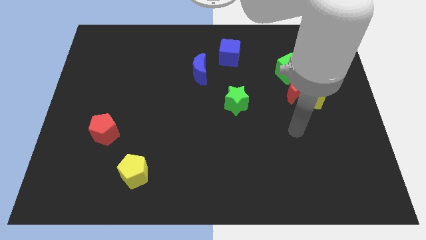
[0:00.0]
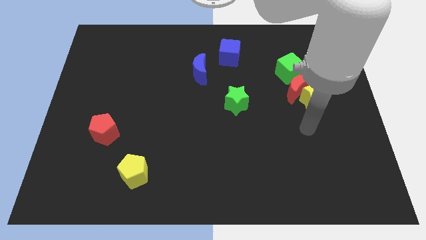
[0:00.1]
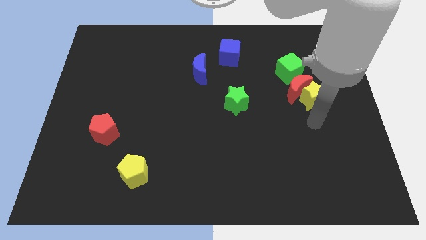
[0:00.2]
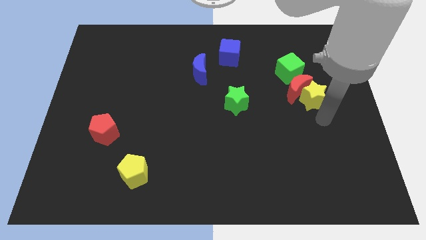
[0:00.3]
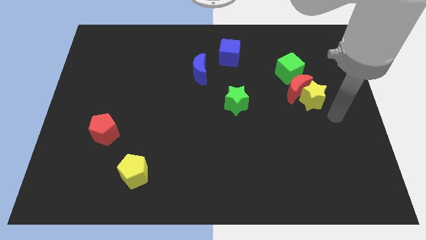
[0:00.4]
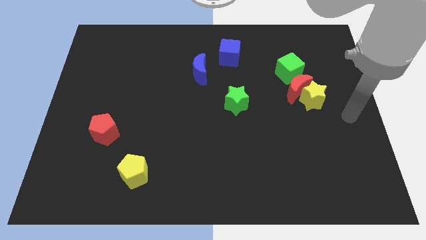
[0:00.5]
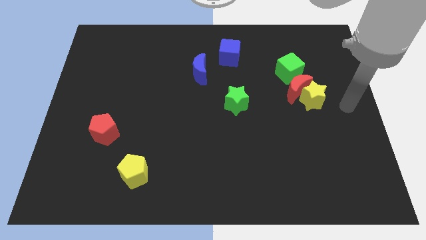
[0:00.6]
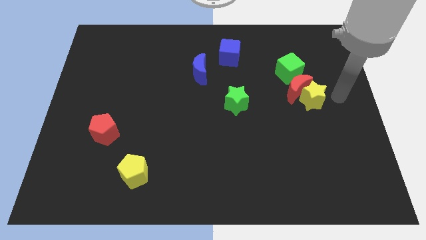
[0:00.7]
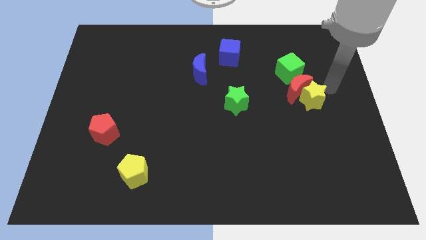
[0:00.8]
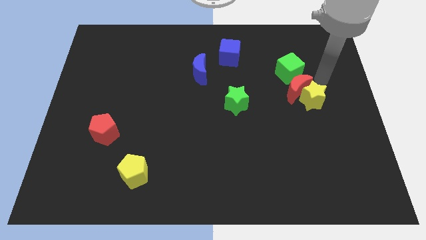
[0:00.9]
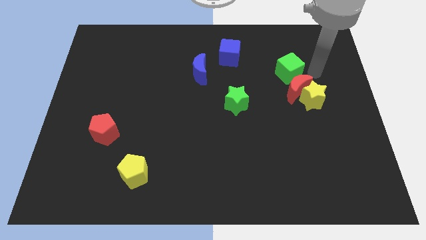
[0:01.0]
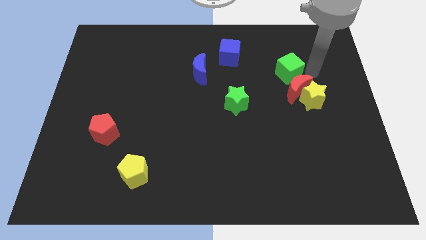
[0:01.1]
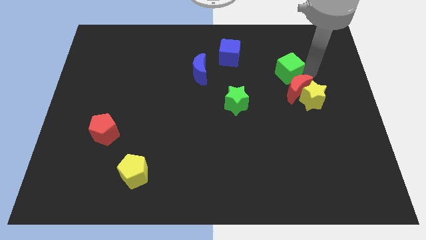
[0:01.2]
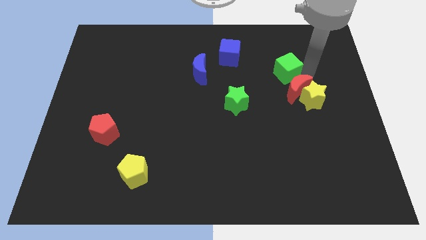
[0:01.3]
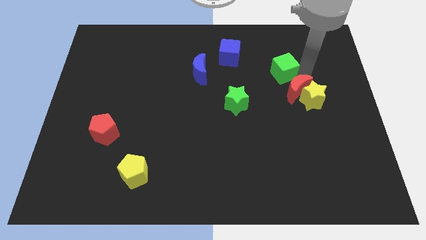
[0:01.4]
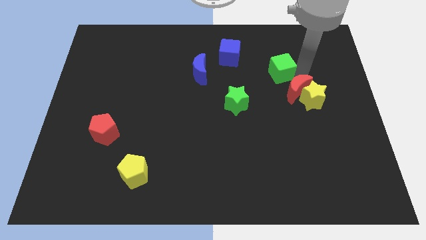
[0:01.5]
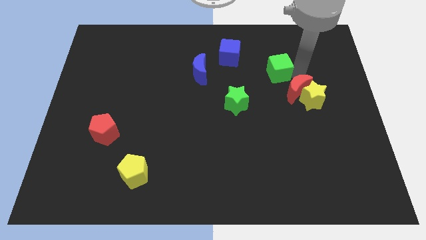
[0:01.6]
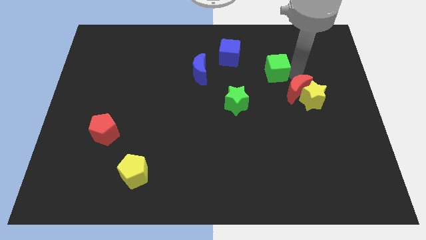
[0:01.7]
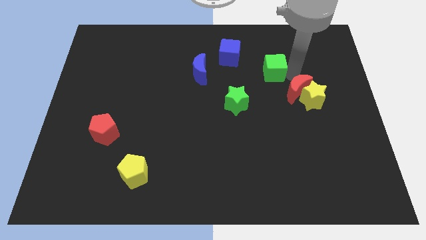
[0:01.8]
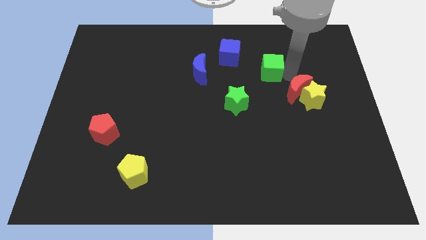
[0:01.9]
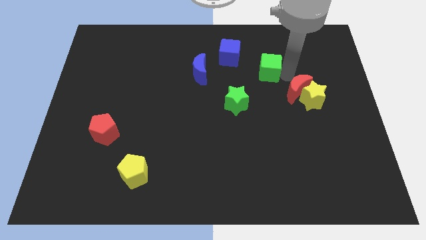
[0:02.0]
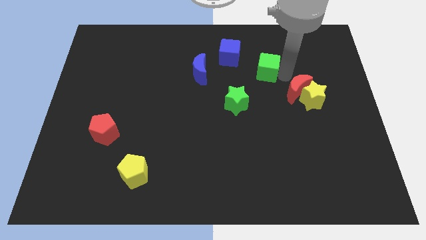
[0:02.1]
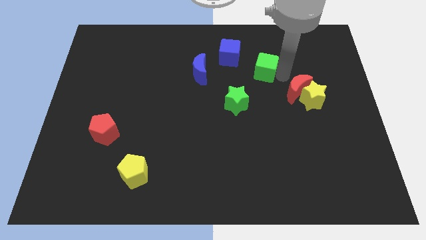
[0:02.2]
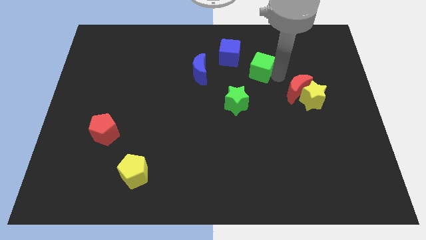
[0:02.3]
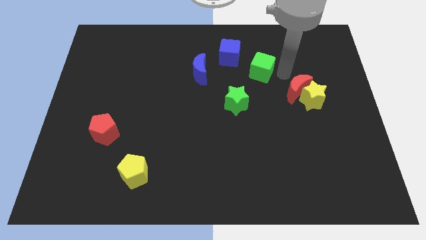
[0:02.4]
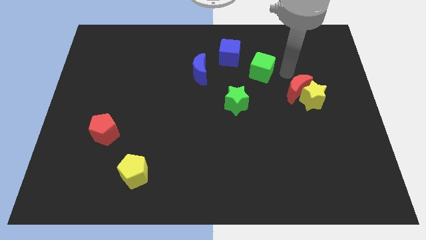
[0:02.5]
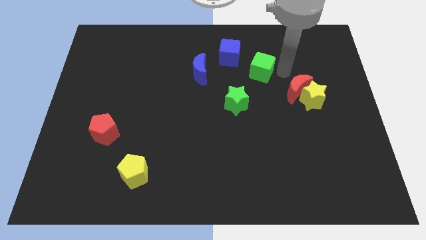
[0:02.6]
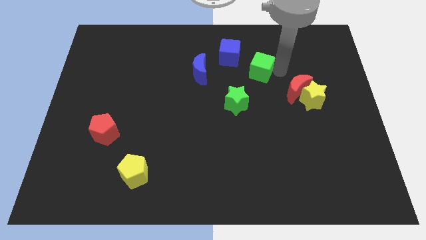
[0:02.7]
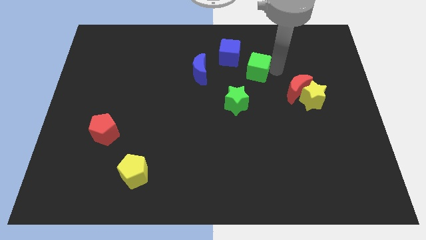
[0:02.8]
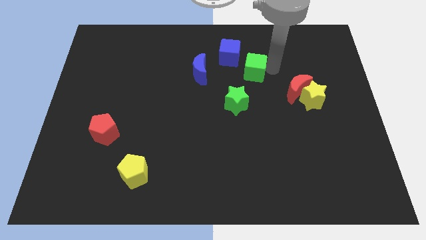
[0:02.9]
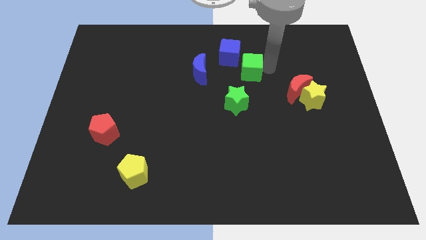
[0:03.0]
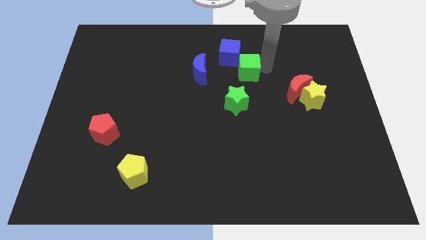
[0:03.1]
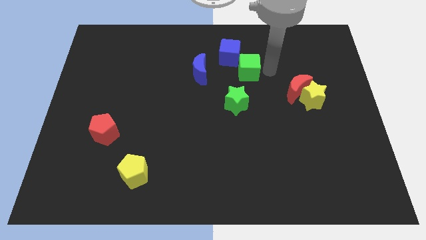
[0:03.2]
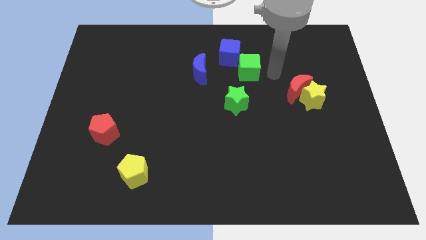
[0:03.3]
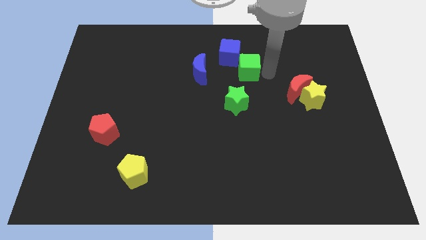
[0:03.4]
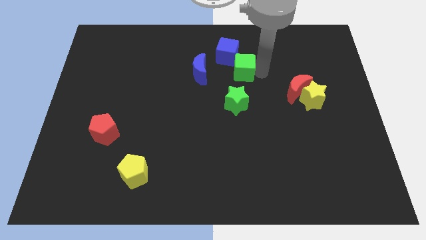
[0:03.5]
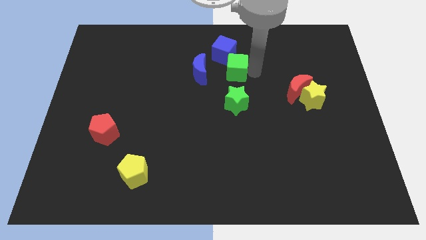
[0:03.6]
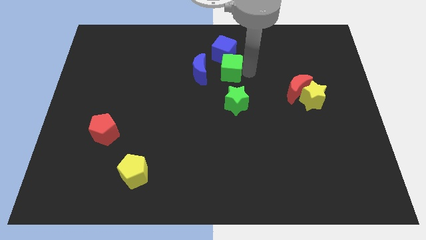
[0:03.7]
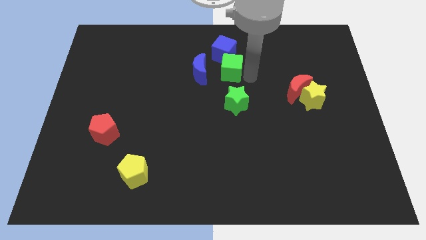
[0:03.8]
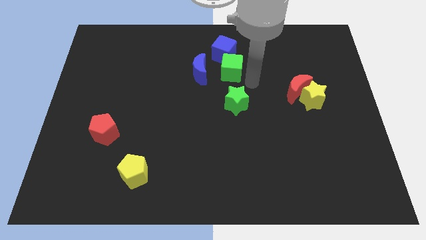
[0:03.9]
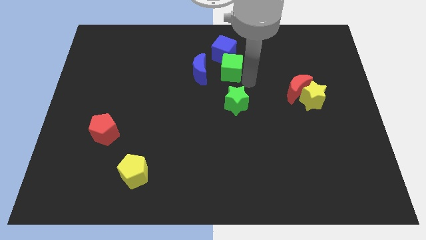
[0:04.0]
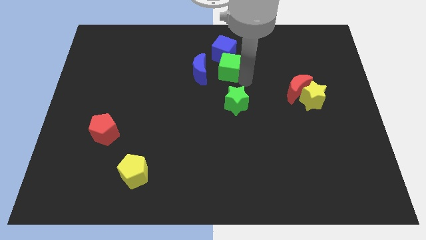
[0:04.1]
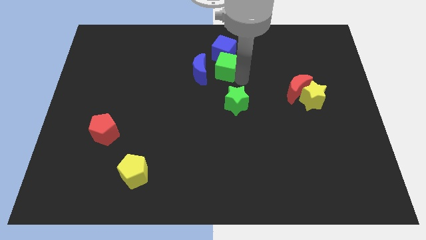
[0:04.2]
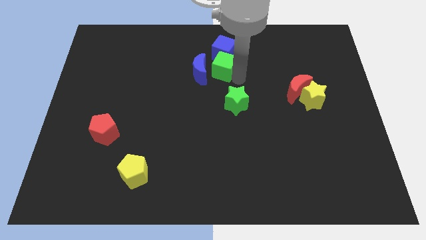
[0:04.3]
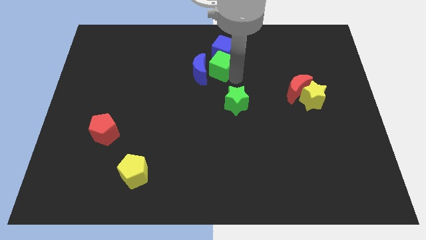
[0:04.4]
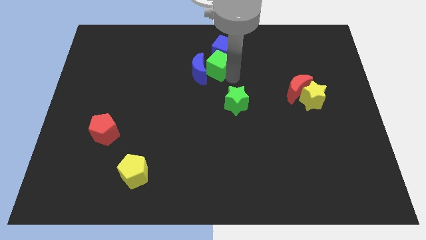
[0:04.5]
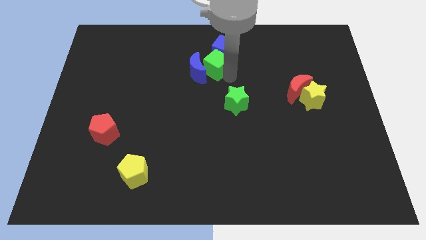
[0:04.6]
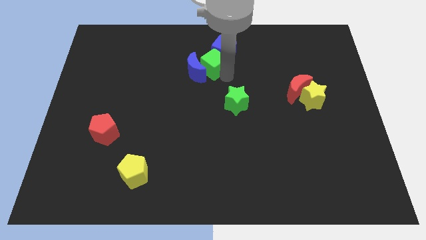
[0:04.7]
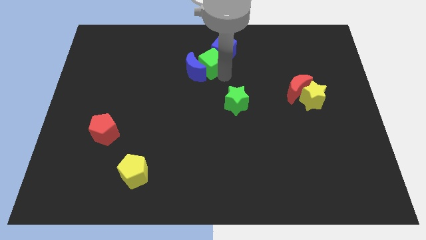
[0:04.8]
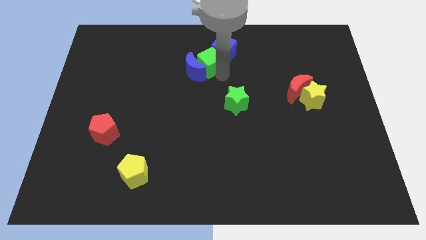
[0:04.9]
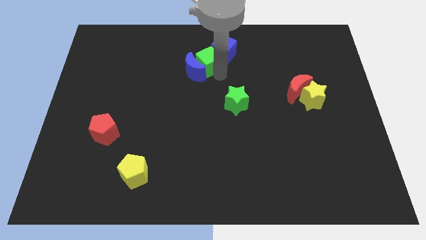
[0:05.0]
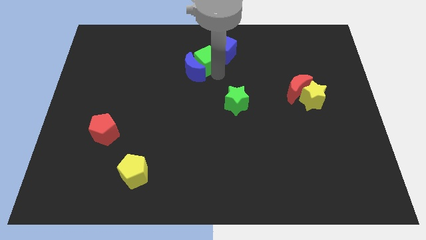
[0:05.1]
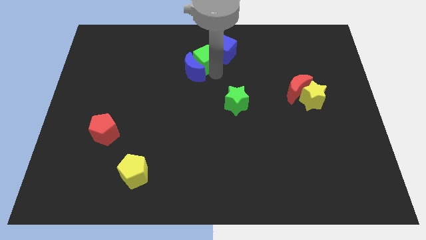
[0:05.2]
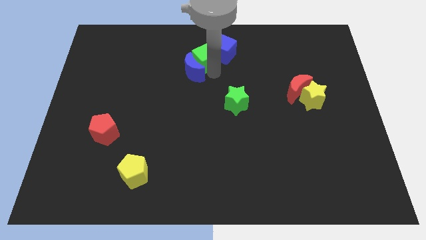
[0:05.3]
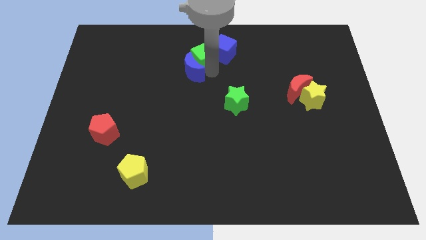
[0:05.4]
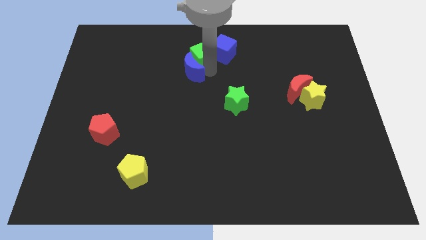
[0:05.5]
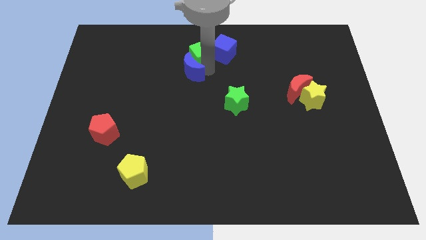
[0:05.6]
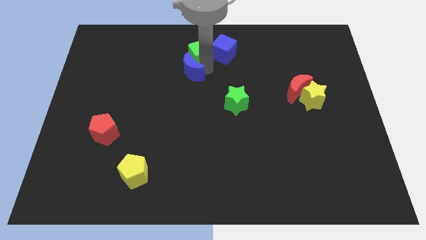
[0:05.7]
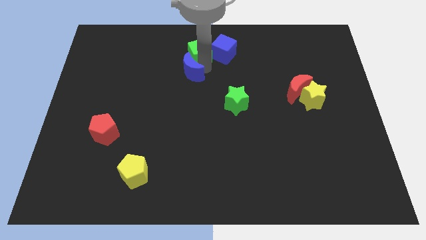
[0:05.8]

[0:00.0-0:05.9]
move the green cube to the top side

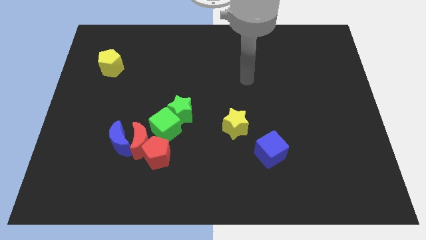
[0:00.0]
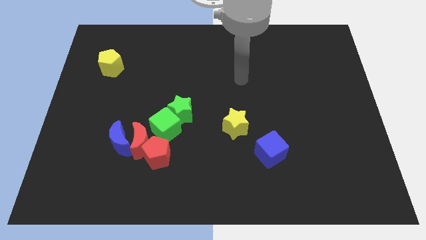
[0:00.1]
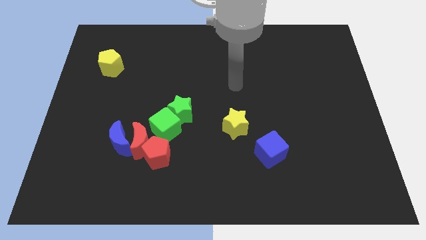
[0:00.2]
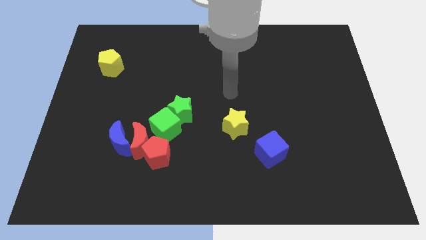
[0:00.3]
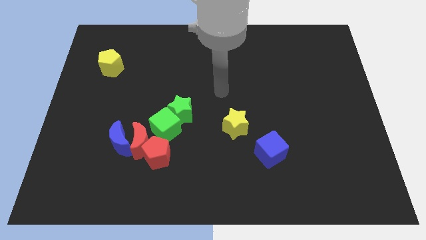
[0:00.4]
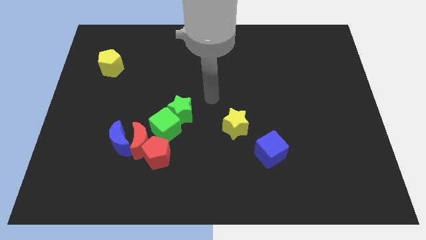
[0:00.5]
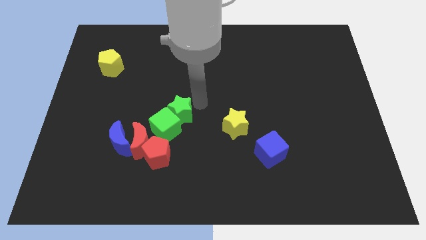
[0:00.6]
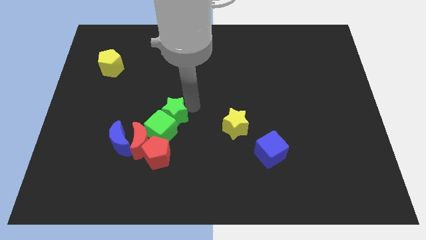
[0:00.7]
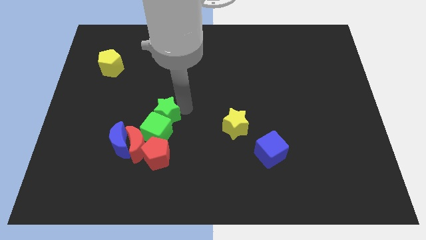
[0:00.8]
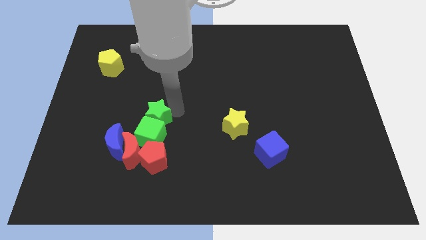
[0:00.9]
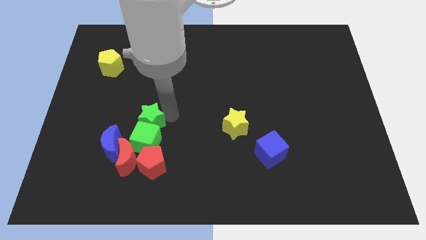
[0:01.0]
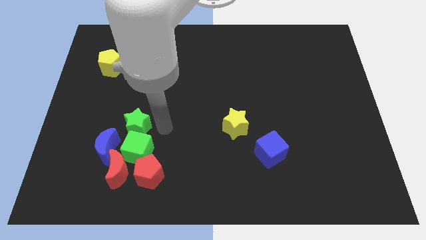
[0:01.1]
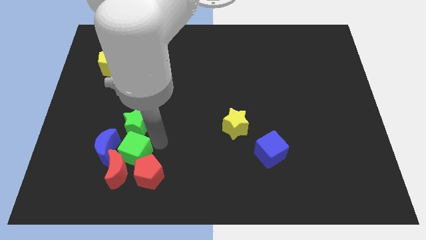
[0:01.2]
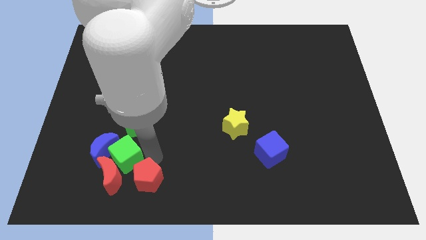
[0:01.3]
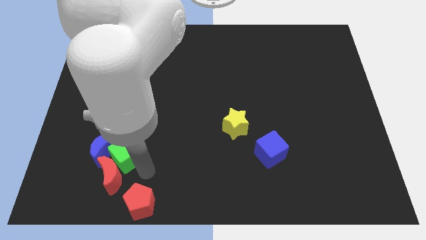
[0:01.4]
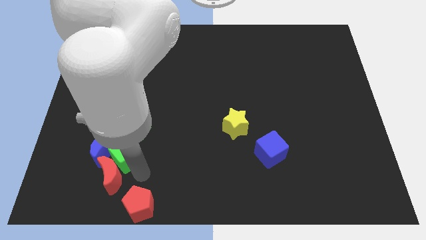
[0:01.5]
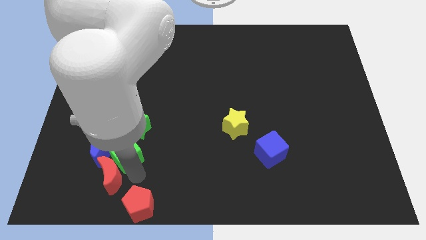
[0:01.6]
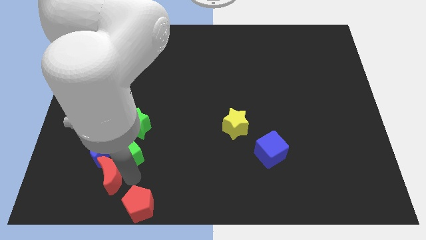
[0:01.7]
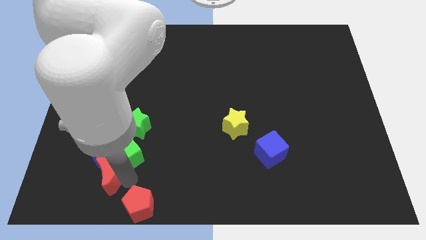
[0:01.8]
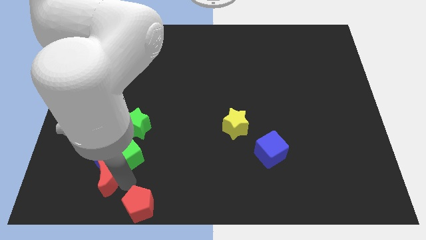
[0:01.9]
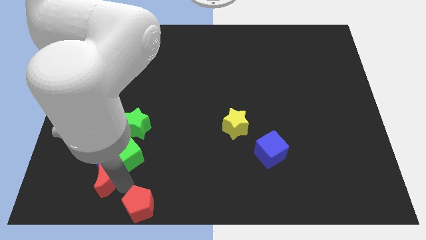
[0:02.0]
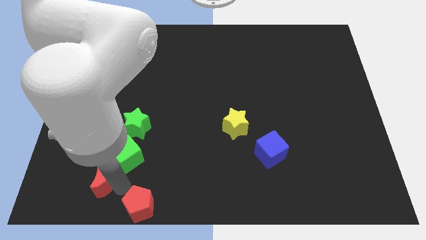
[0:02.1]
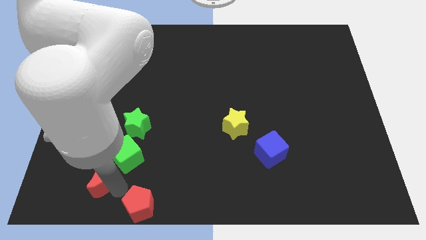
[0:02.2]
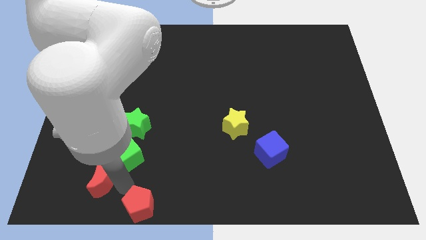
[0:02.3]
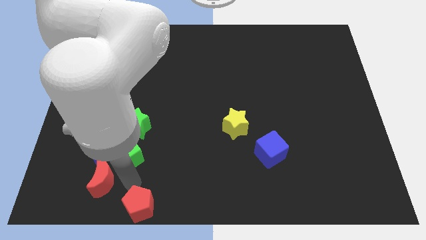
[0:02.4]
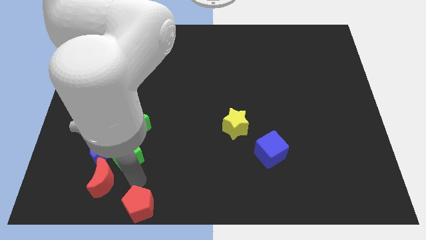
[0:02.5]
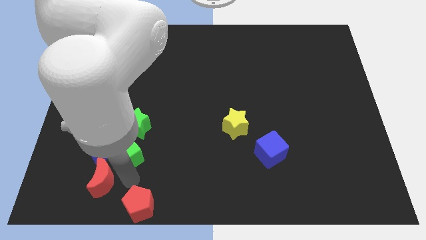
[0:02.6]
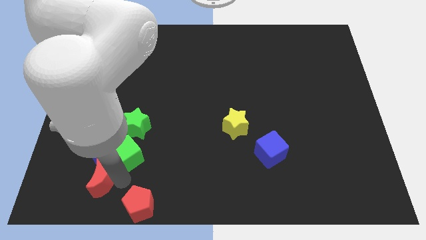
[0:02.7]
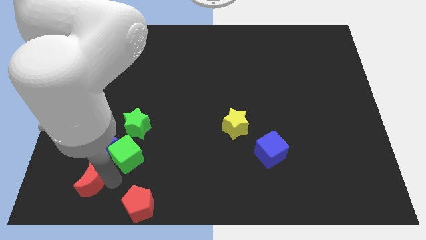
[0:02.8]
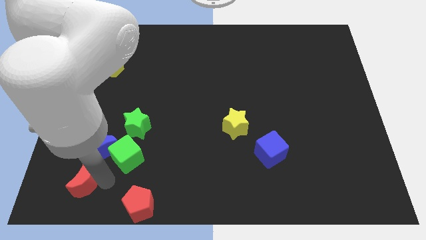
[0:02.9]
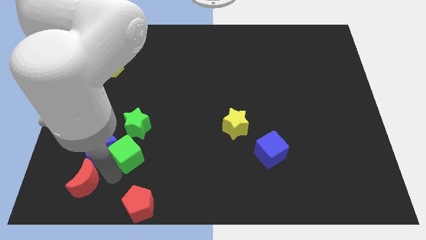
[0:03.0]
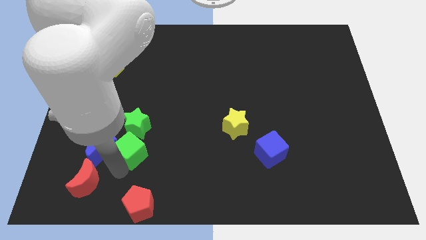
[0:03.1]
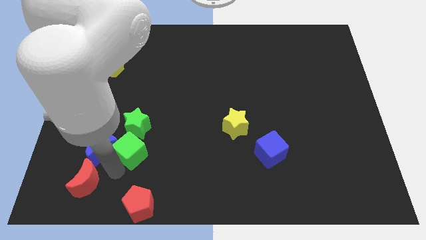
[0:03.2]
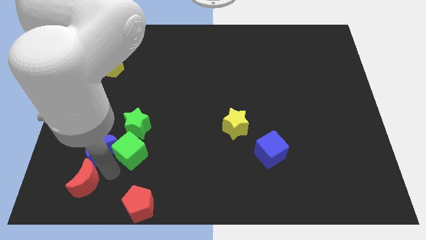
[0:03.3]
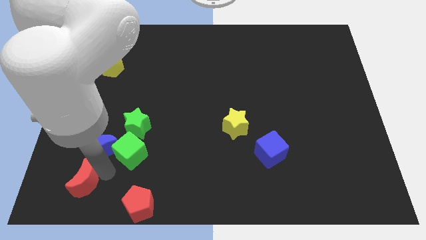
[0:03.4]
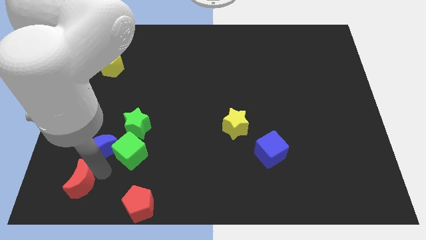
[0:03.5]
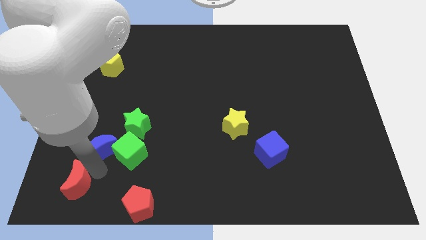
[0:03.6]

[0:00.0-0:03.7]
slide the red moon to the bottom left
